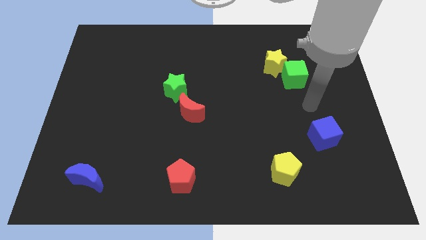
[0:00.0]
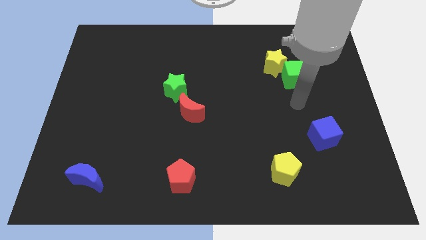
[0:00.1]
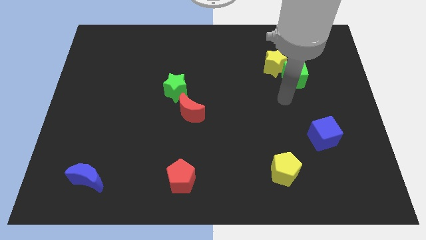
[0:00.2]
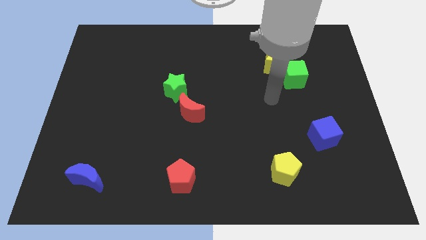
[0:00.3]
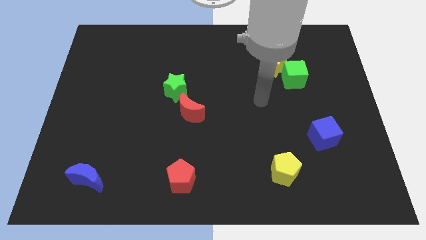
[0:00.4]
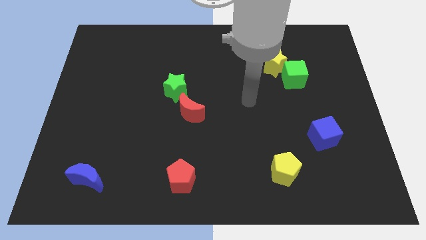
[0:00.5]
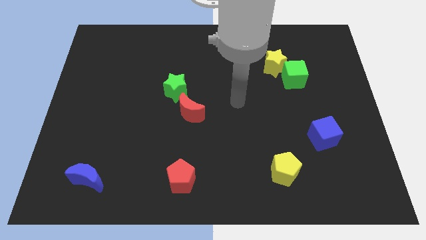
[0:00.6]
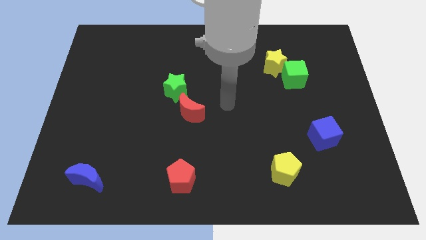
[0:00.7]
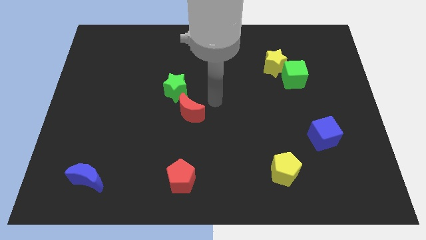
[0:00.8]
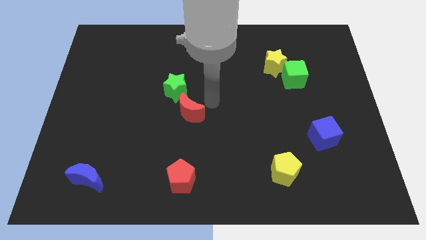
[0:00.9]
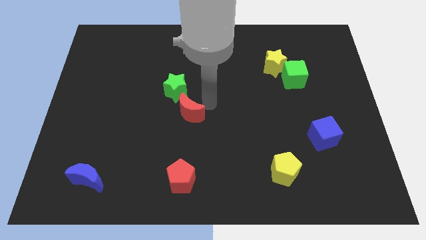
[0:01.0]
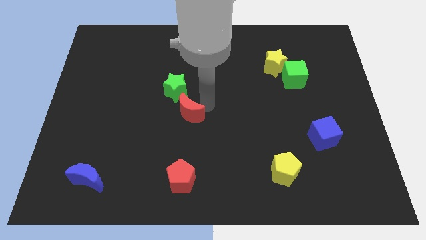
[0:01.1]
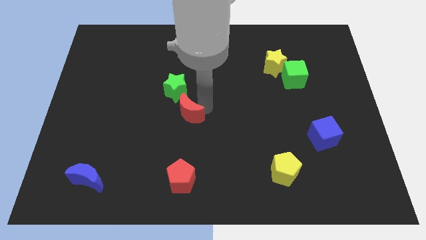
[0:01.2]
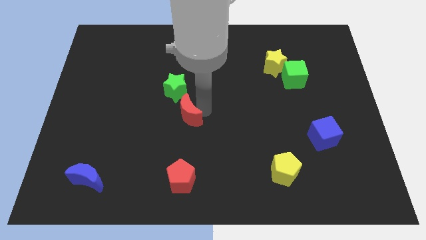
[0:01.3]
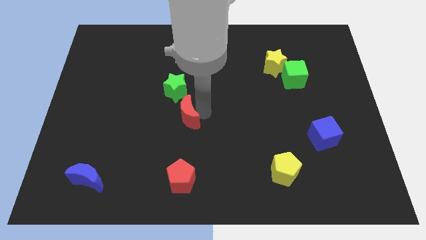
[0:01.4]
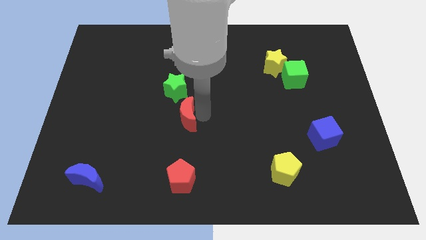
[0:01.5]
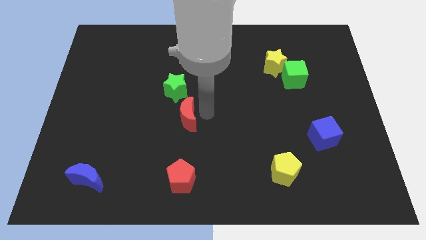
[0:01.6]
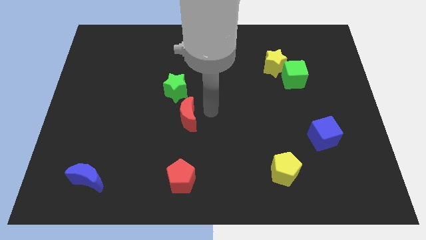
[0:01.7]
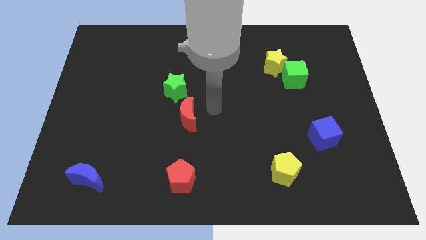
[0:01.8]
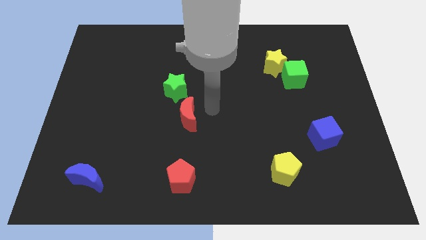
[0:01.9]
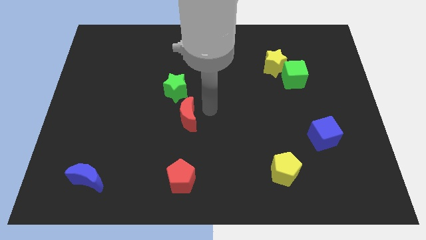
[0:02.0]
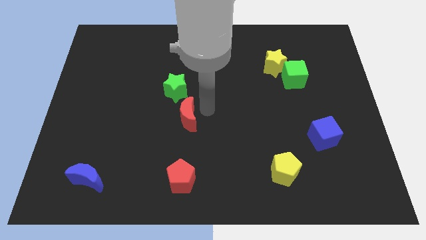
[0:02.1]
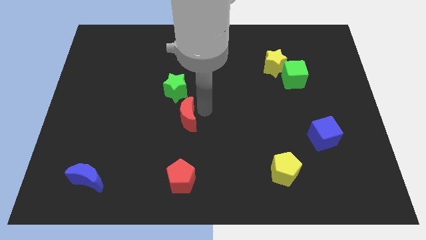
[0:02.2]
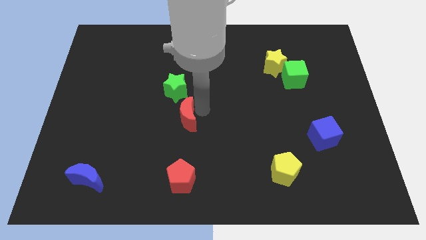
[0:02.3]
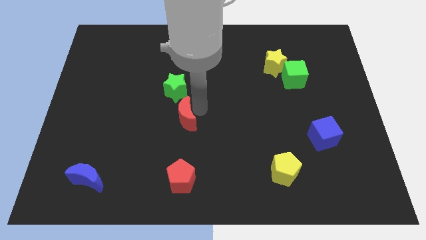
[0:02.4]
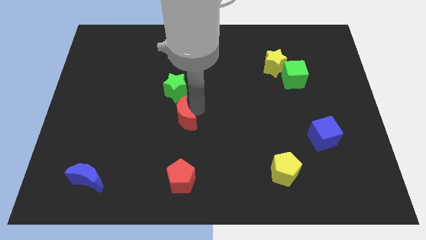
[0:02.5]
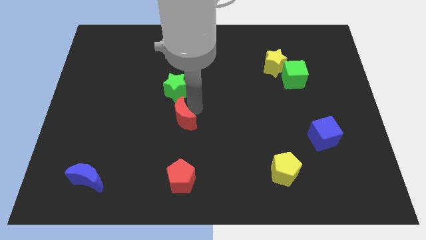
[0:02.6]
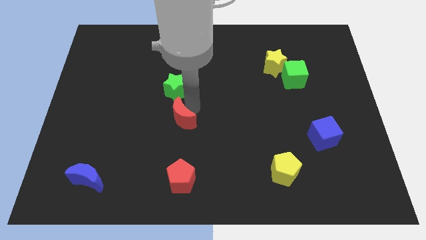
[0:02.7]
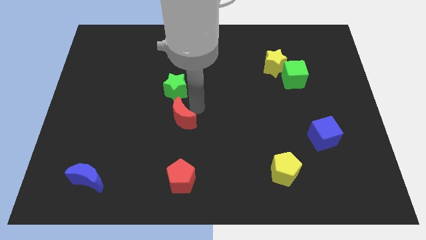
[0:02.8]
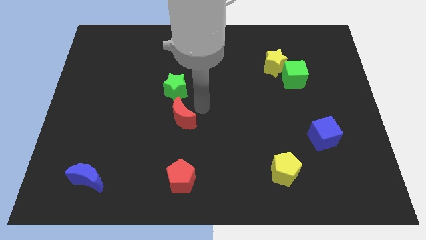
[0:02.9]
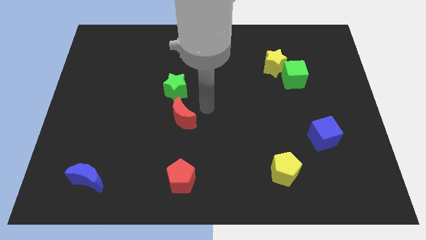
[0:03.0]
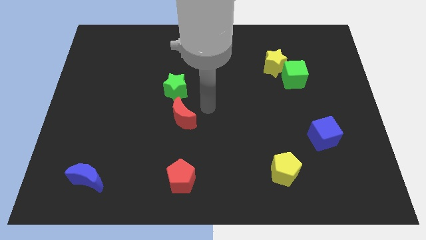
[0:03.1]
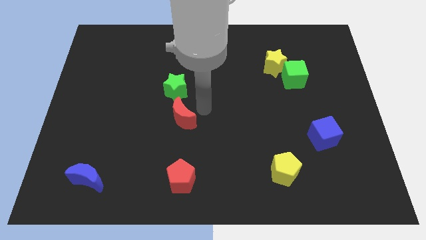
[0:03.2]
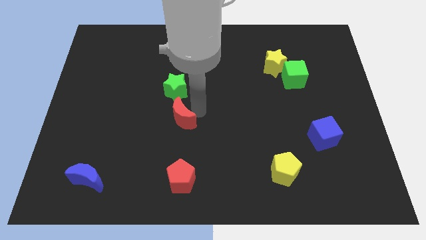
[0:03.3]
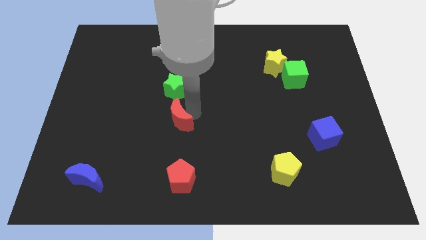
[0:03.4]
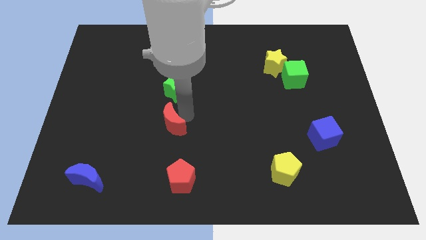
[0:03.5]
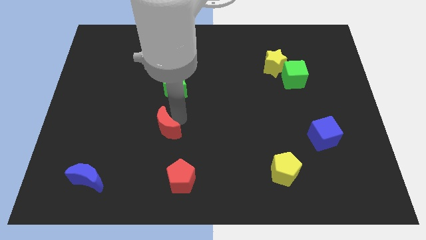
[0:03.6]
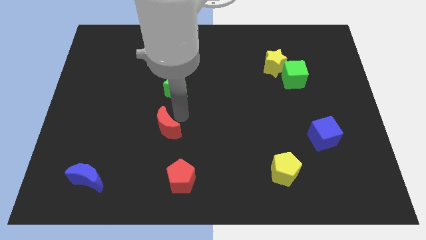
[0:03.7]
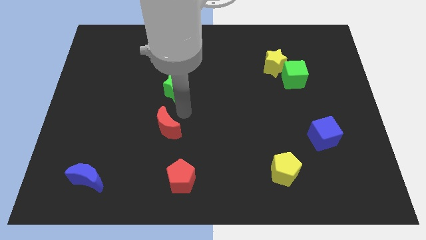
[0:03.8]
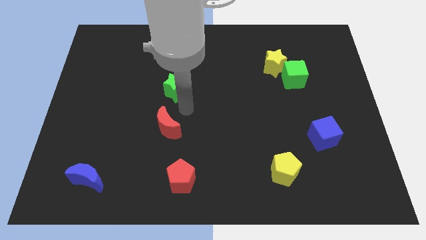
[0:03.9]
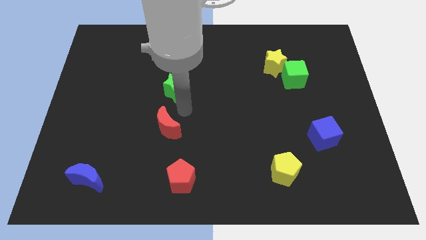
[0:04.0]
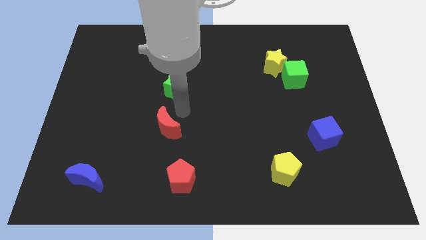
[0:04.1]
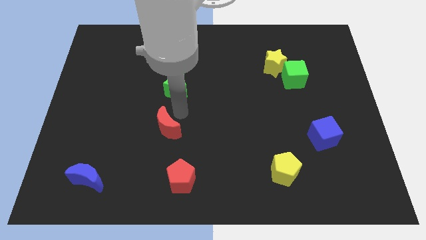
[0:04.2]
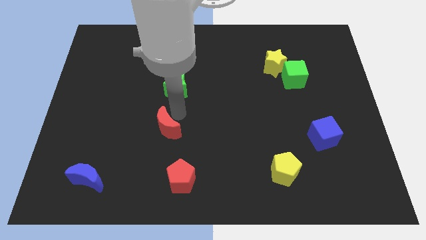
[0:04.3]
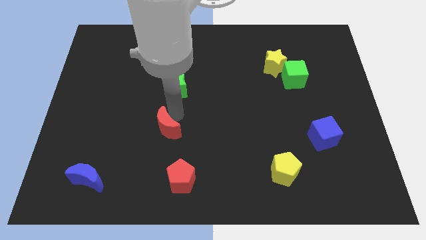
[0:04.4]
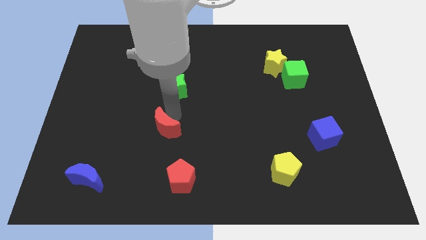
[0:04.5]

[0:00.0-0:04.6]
move the red moon downwards and to the left diagonally somewhat

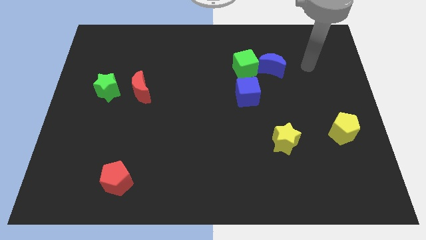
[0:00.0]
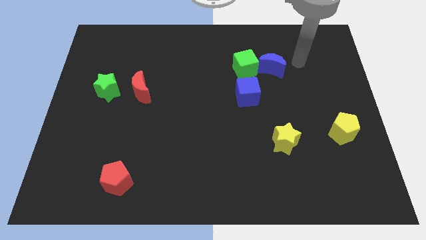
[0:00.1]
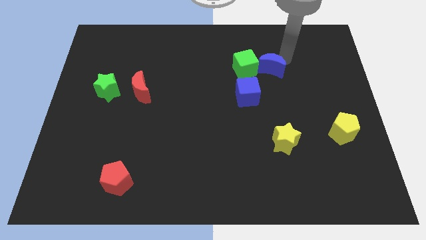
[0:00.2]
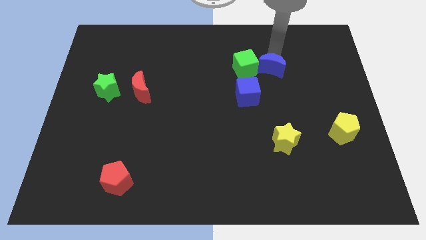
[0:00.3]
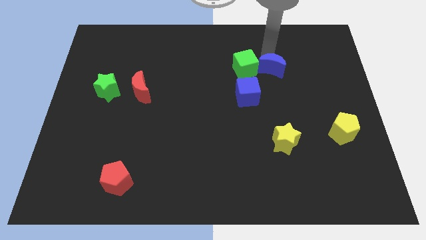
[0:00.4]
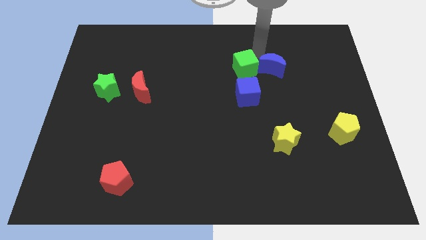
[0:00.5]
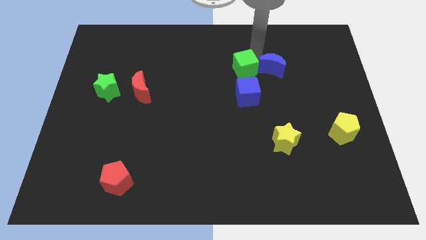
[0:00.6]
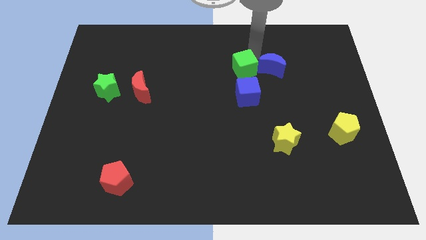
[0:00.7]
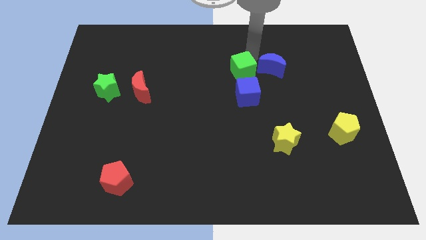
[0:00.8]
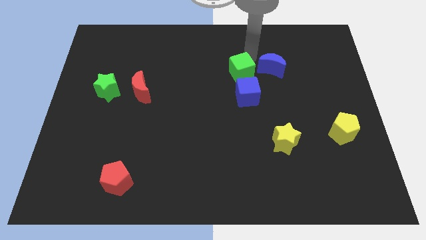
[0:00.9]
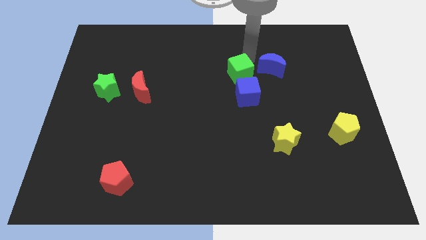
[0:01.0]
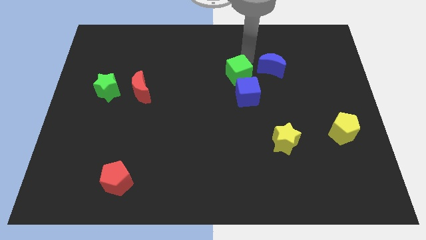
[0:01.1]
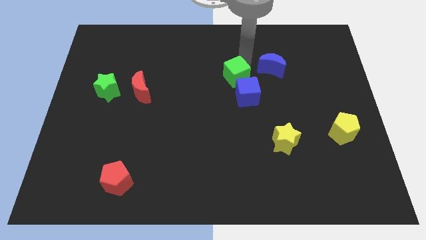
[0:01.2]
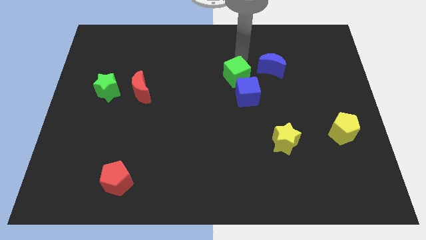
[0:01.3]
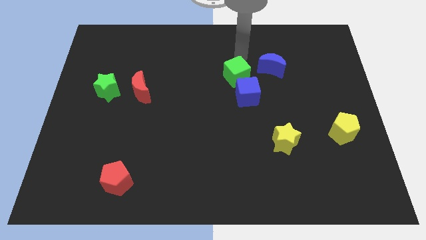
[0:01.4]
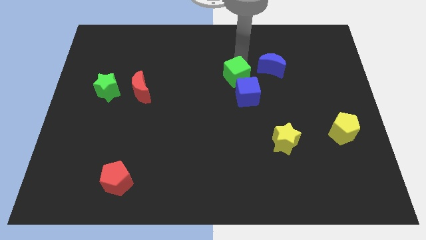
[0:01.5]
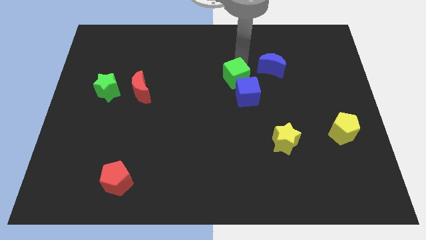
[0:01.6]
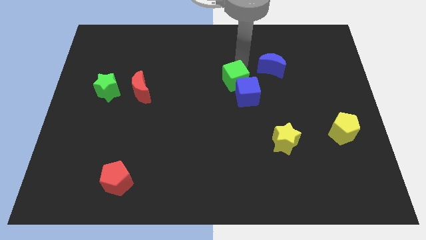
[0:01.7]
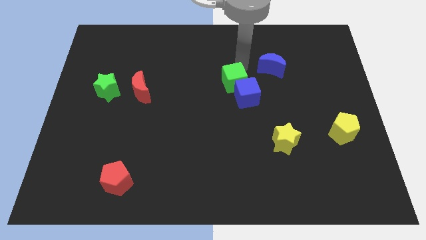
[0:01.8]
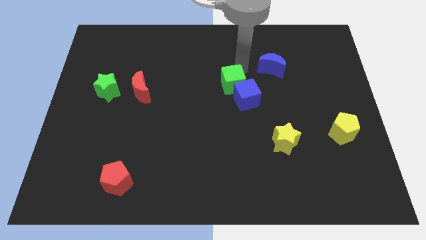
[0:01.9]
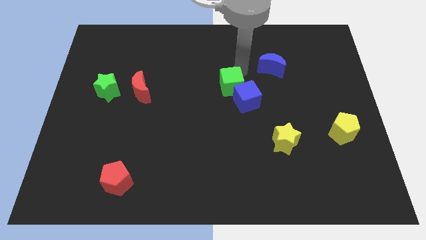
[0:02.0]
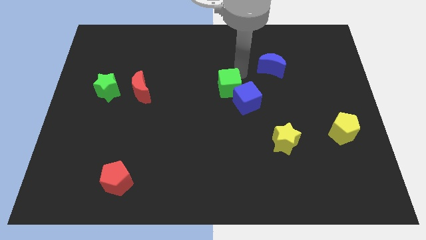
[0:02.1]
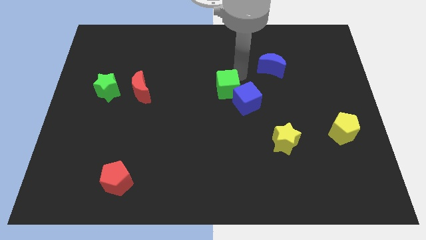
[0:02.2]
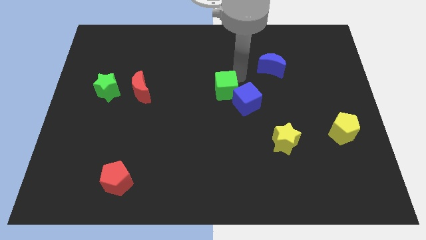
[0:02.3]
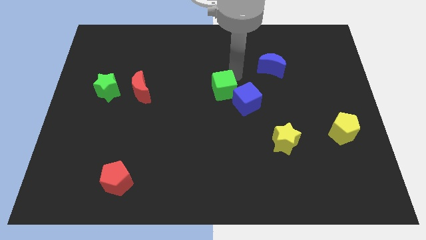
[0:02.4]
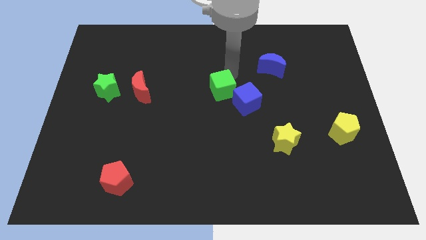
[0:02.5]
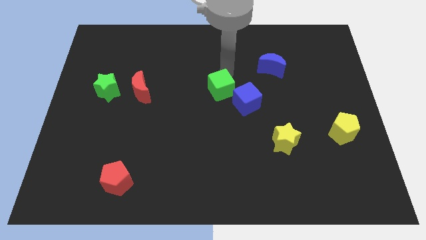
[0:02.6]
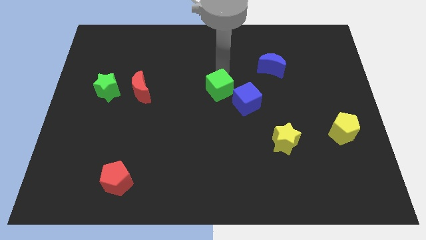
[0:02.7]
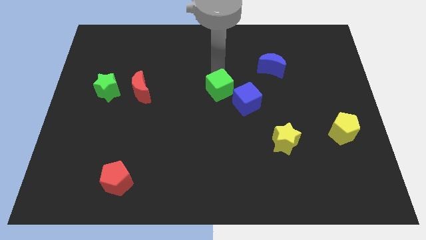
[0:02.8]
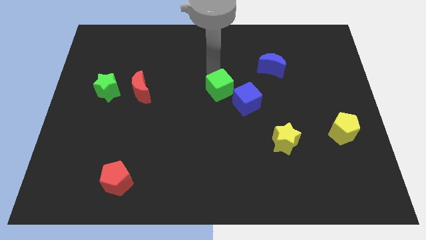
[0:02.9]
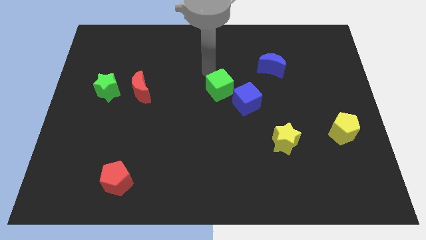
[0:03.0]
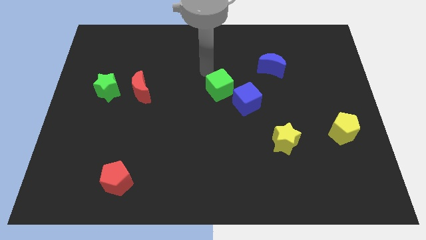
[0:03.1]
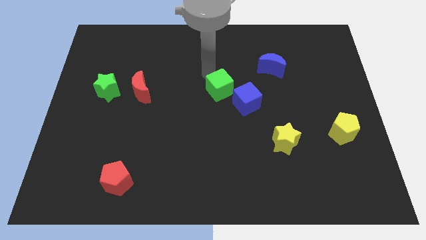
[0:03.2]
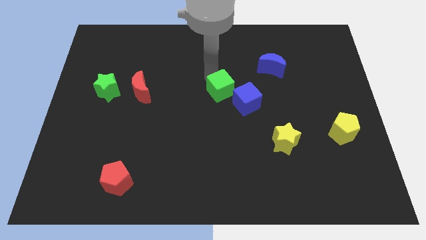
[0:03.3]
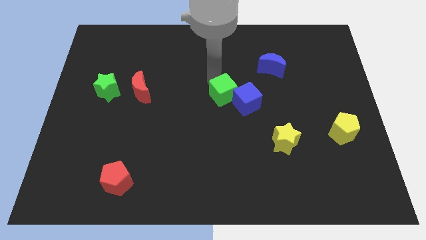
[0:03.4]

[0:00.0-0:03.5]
push the green cube a little bit downwards

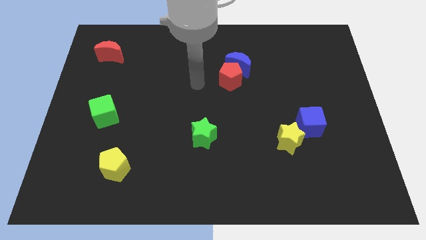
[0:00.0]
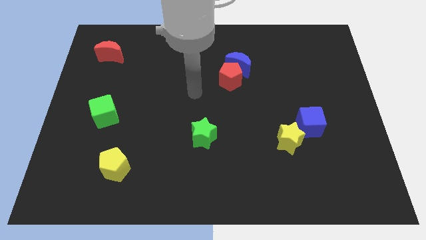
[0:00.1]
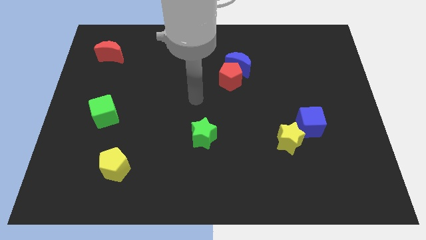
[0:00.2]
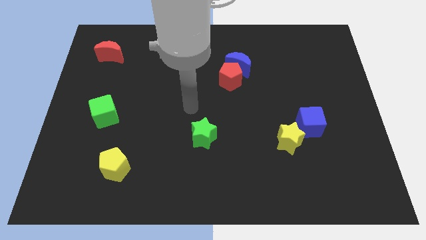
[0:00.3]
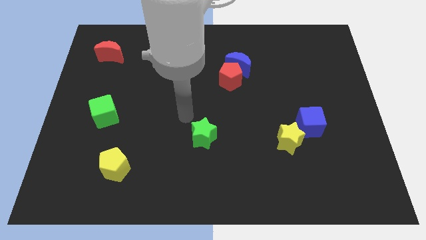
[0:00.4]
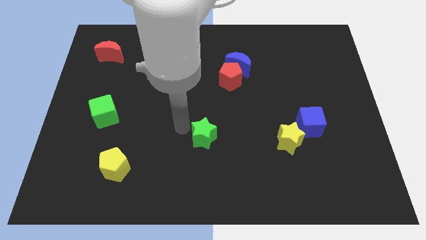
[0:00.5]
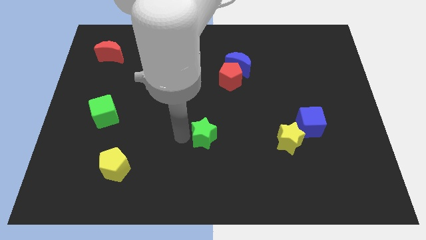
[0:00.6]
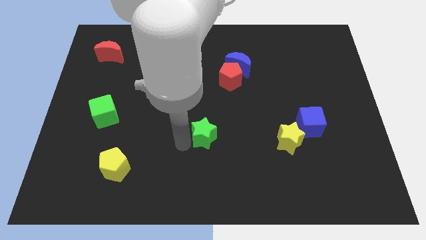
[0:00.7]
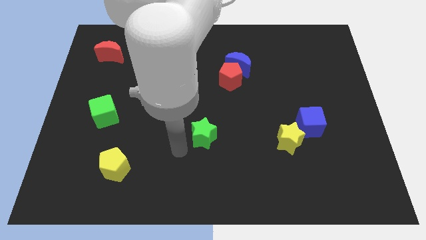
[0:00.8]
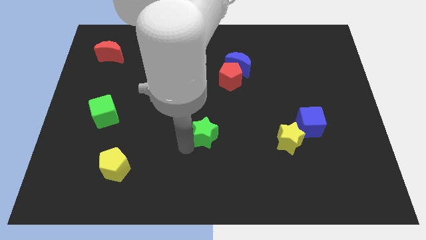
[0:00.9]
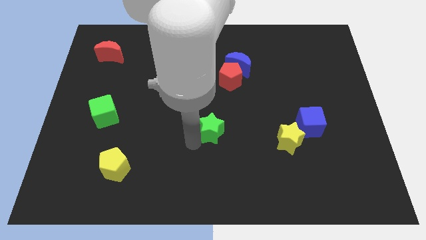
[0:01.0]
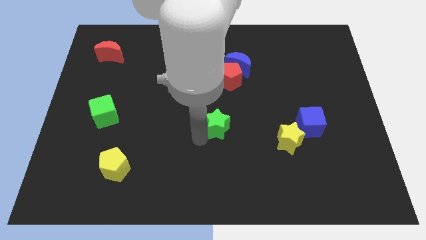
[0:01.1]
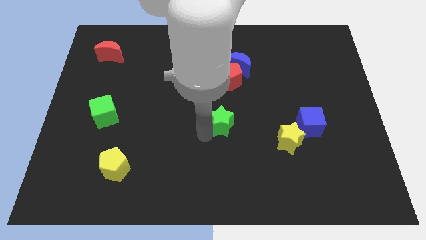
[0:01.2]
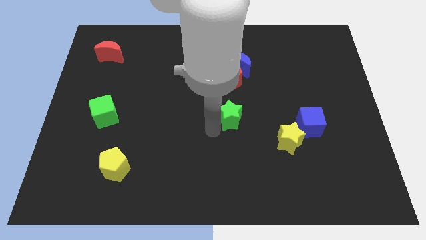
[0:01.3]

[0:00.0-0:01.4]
move the green star upwards and right diagonally a little bit
